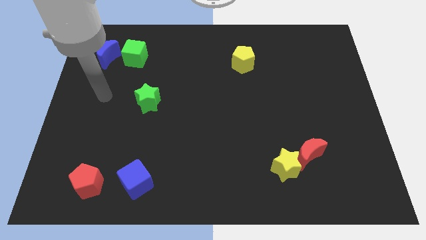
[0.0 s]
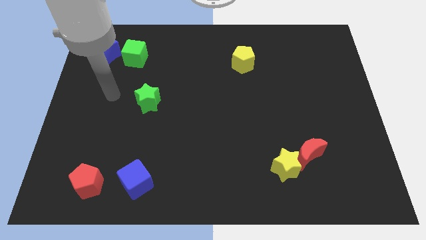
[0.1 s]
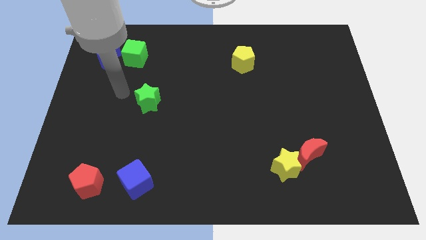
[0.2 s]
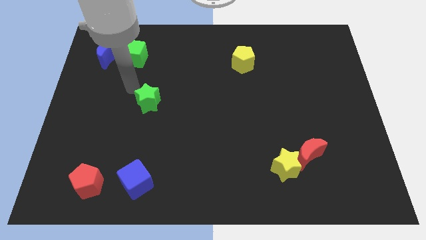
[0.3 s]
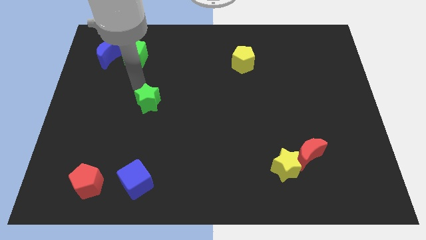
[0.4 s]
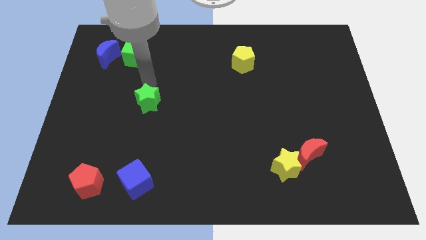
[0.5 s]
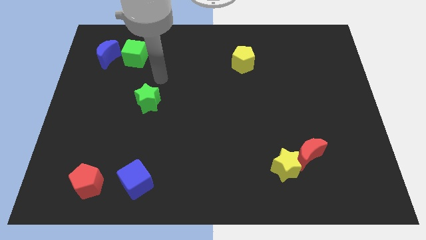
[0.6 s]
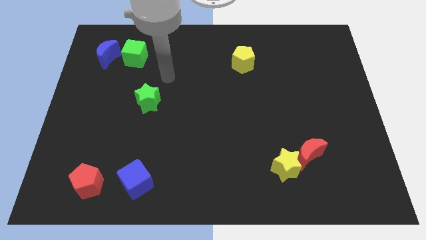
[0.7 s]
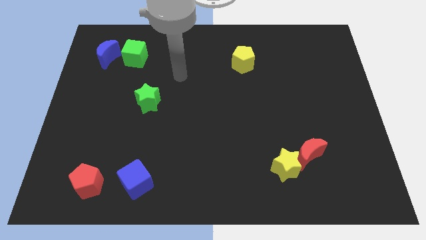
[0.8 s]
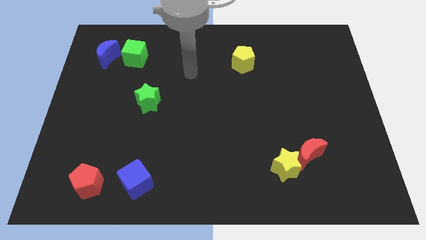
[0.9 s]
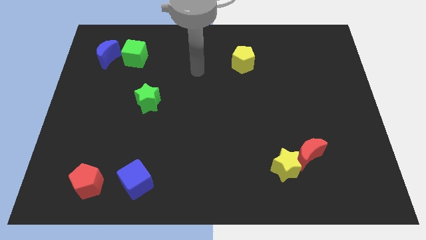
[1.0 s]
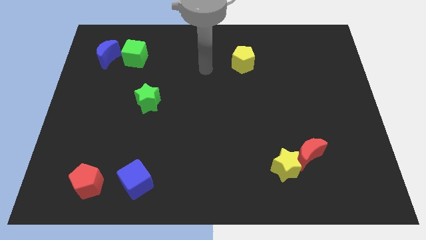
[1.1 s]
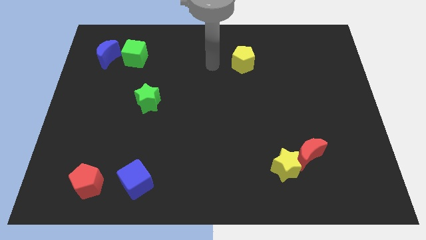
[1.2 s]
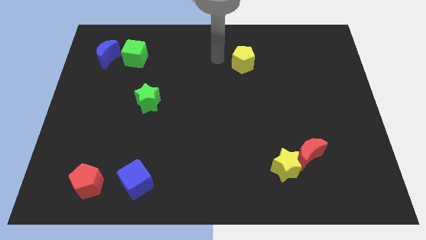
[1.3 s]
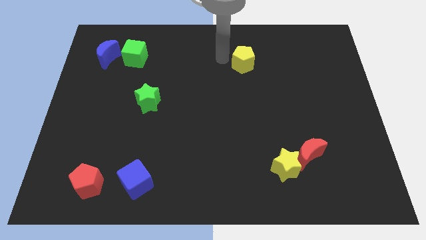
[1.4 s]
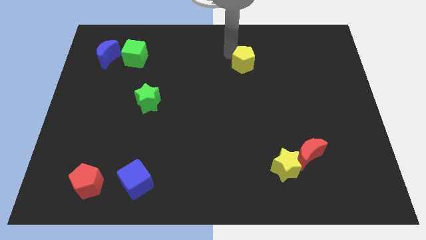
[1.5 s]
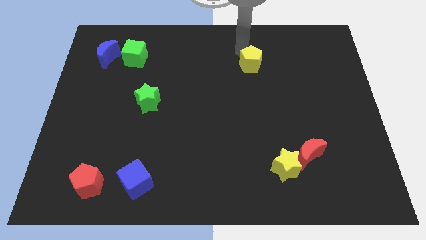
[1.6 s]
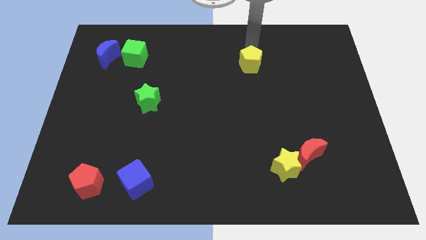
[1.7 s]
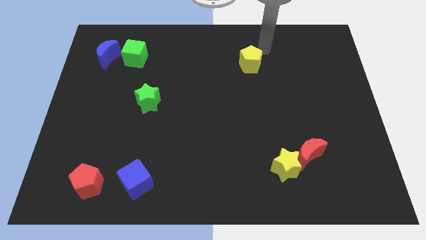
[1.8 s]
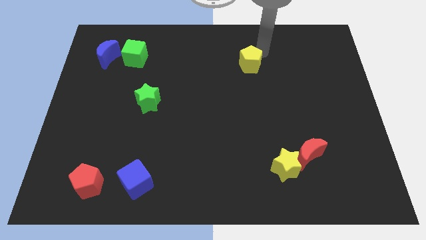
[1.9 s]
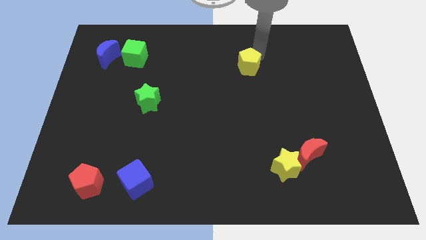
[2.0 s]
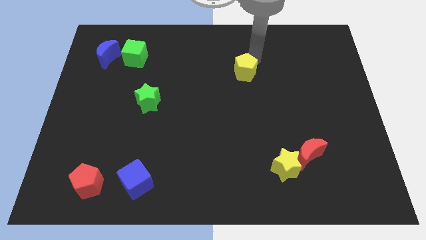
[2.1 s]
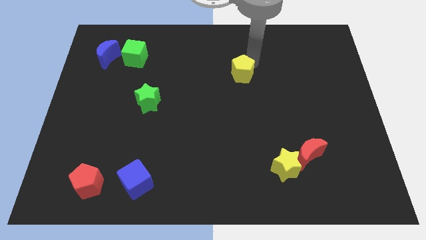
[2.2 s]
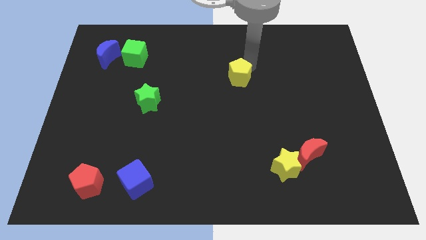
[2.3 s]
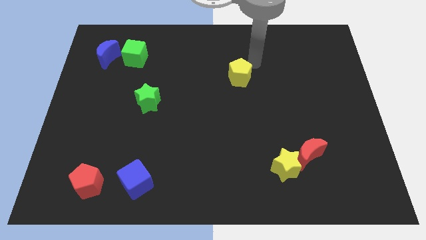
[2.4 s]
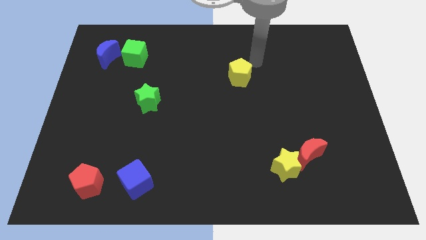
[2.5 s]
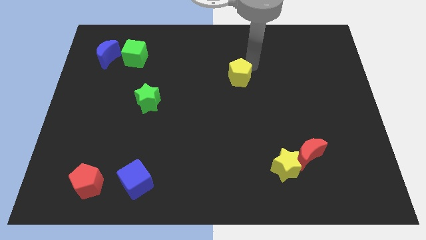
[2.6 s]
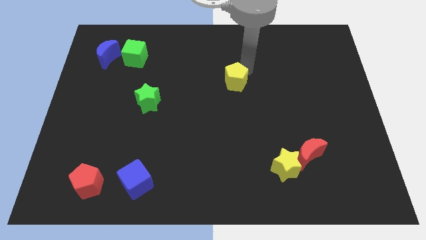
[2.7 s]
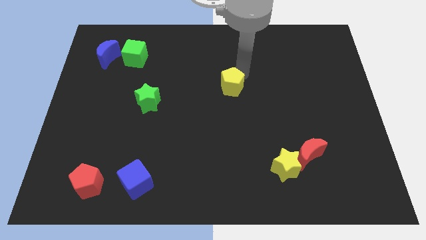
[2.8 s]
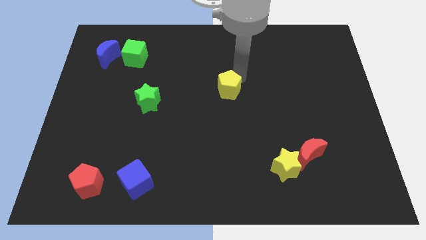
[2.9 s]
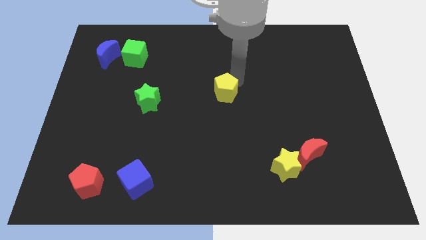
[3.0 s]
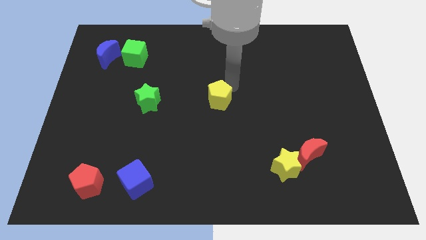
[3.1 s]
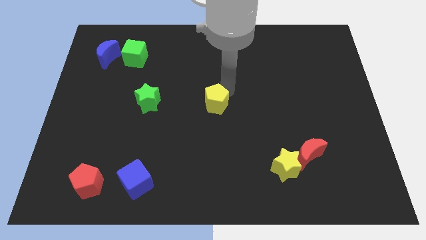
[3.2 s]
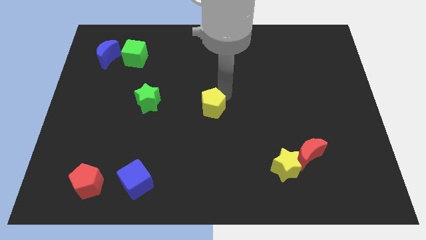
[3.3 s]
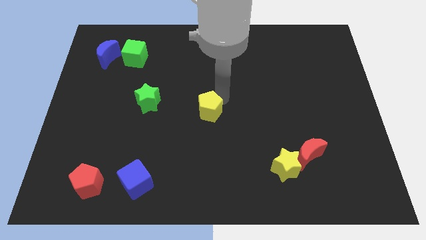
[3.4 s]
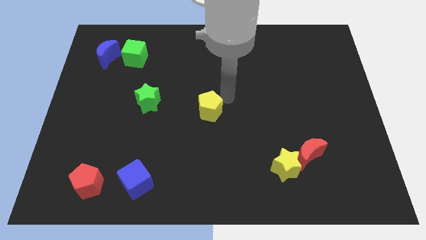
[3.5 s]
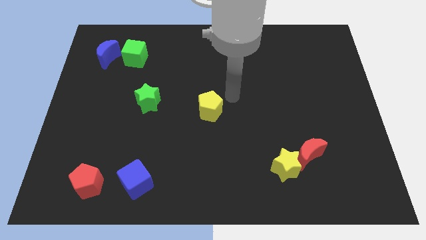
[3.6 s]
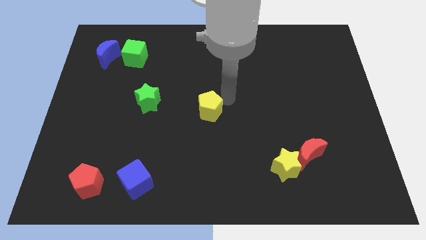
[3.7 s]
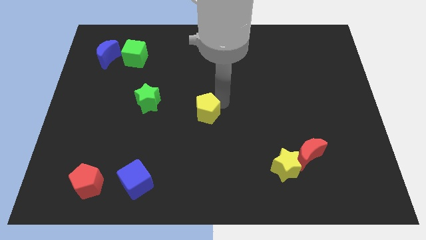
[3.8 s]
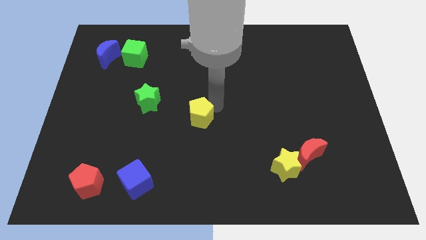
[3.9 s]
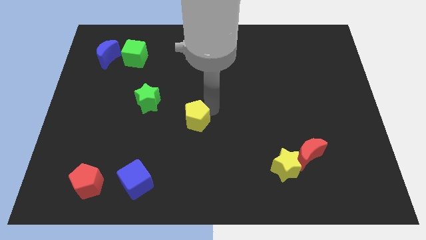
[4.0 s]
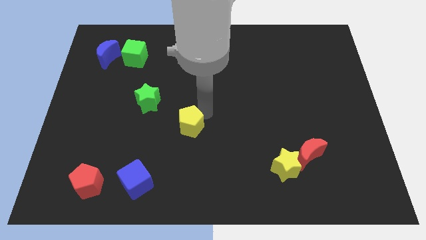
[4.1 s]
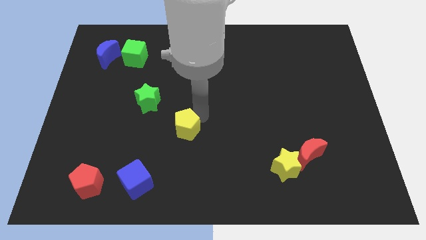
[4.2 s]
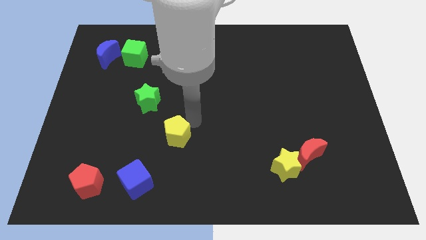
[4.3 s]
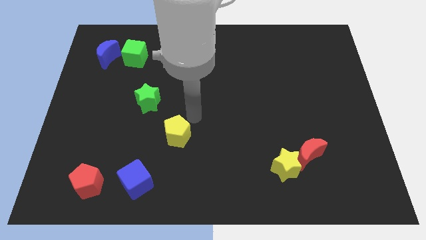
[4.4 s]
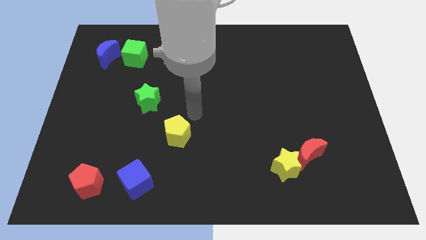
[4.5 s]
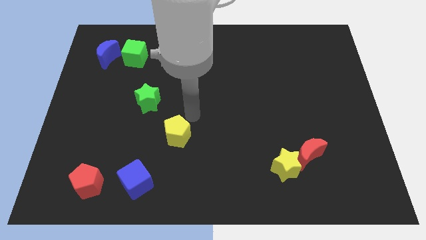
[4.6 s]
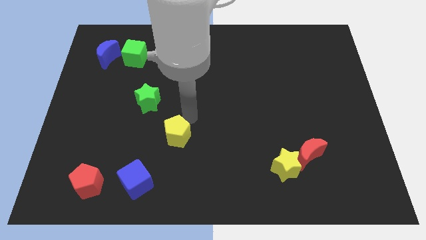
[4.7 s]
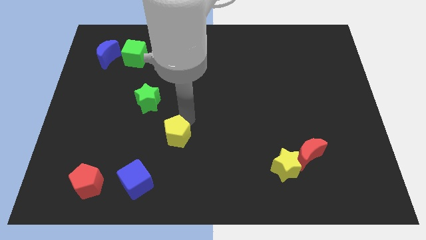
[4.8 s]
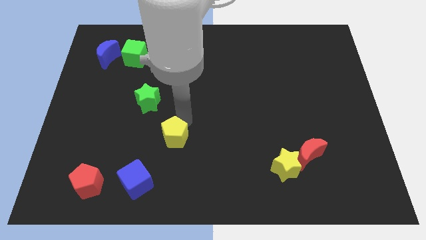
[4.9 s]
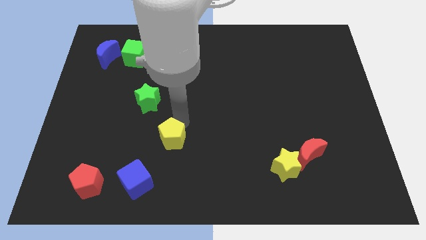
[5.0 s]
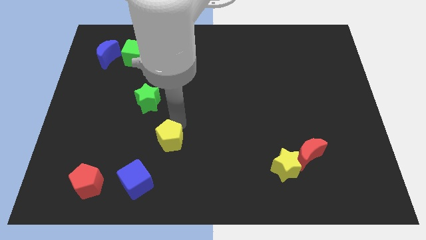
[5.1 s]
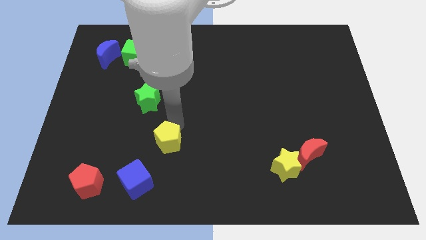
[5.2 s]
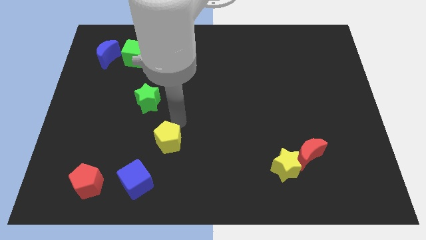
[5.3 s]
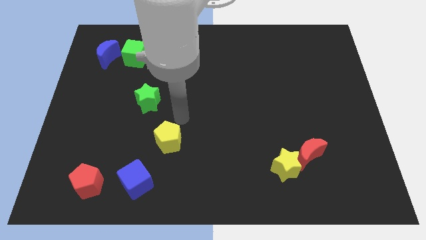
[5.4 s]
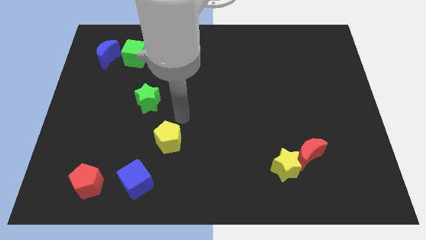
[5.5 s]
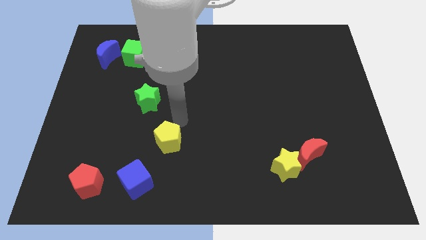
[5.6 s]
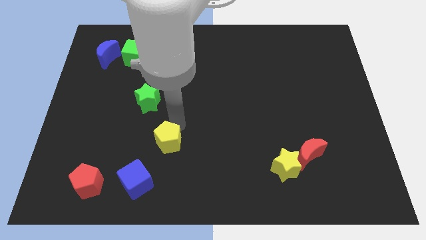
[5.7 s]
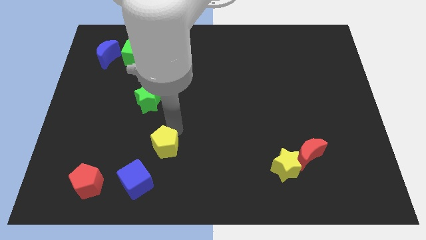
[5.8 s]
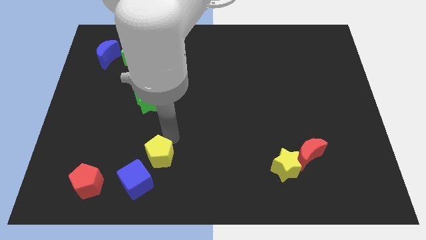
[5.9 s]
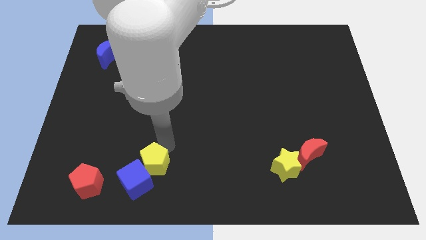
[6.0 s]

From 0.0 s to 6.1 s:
put the yellow pentagon close to the blue cube

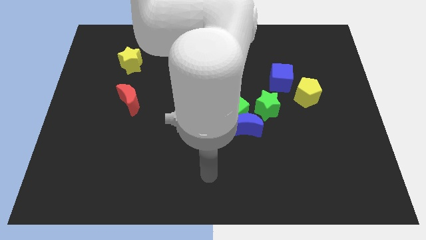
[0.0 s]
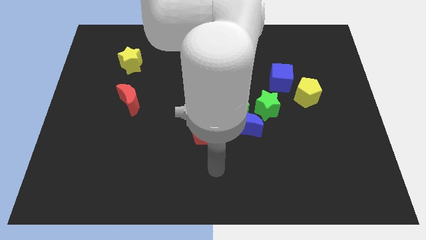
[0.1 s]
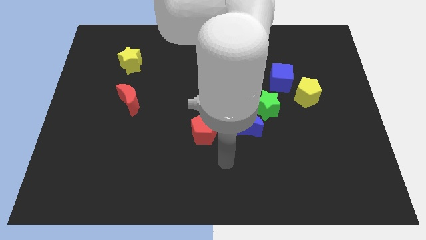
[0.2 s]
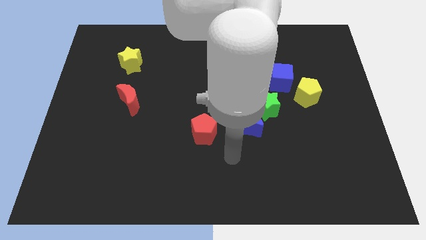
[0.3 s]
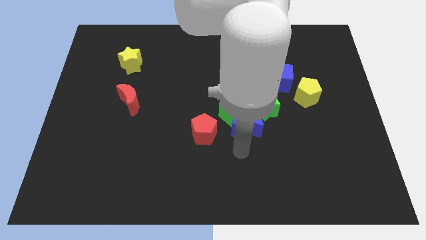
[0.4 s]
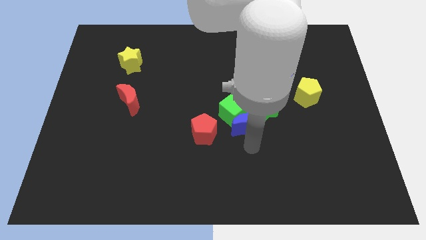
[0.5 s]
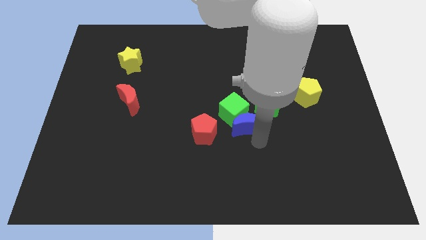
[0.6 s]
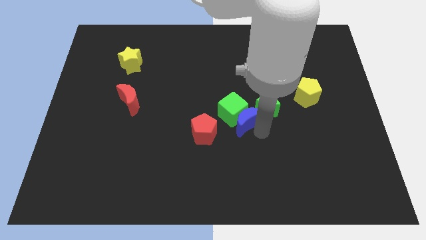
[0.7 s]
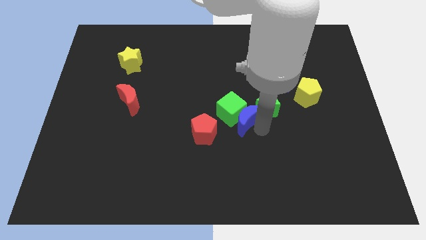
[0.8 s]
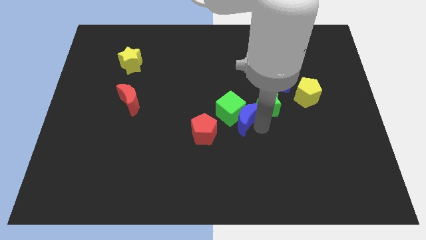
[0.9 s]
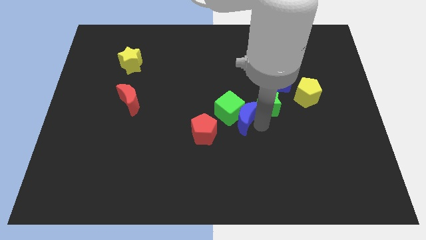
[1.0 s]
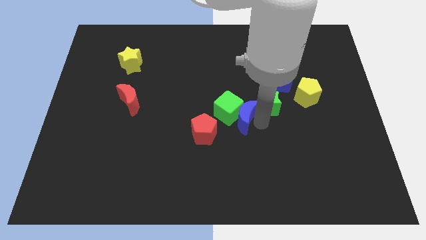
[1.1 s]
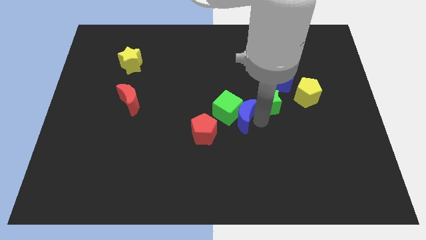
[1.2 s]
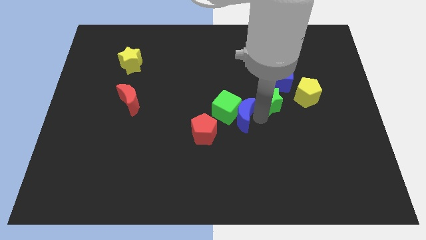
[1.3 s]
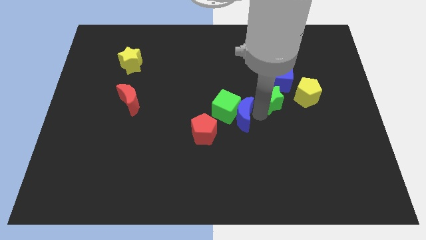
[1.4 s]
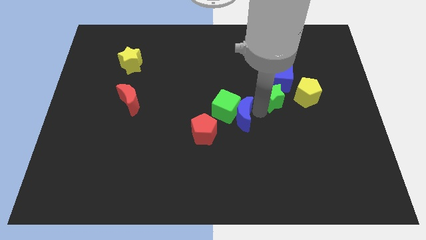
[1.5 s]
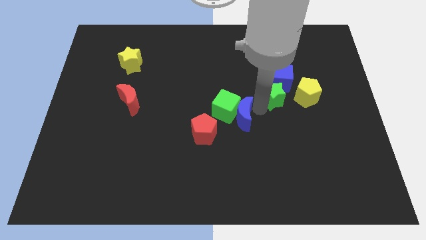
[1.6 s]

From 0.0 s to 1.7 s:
push the green star to the blue cube

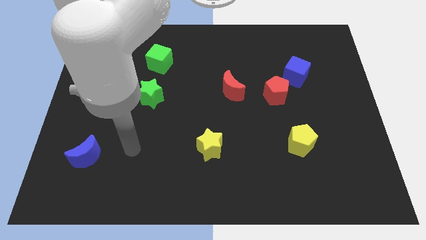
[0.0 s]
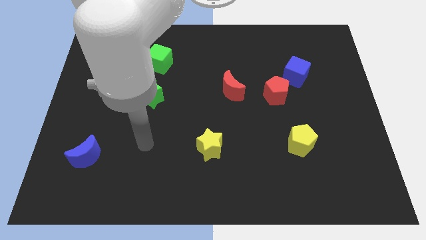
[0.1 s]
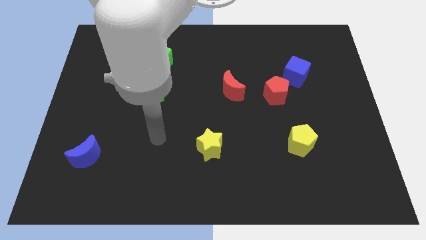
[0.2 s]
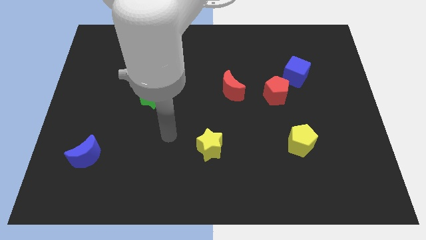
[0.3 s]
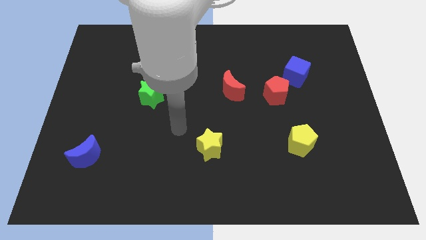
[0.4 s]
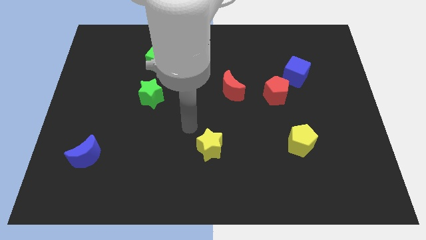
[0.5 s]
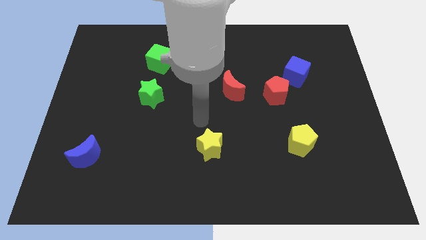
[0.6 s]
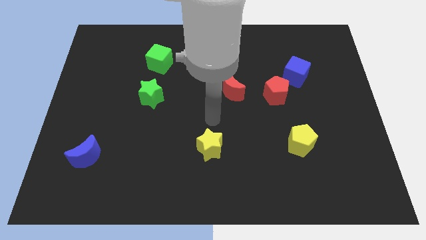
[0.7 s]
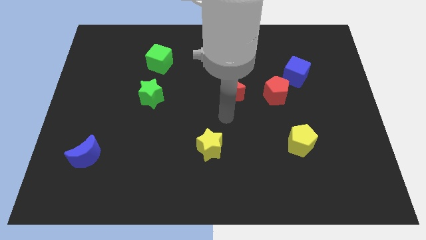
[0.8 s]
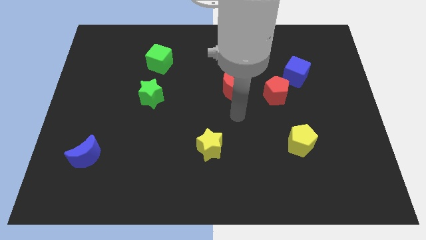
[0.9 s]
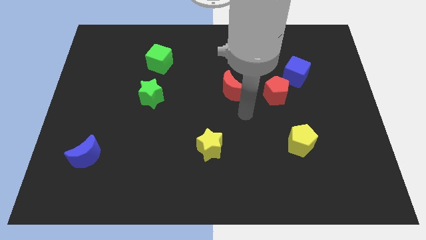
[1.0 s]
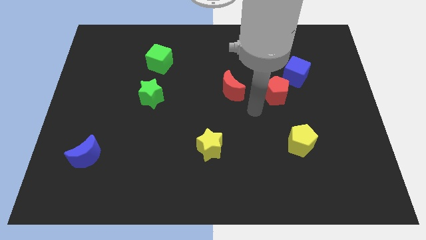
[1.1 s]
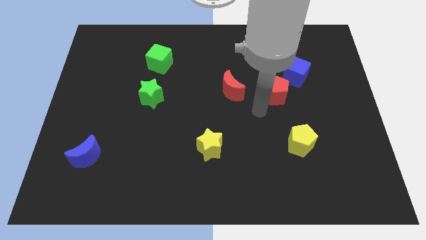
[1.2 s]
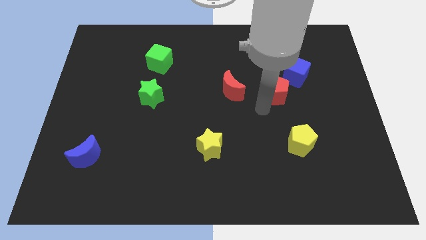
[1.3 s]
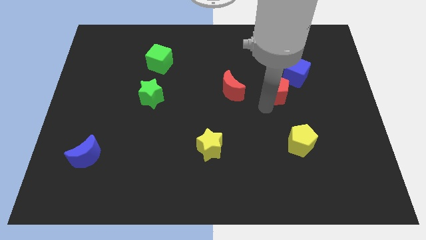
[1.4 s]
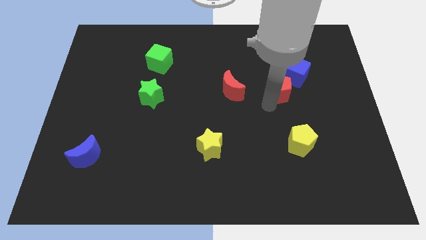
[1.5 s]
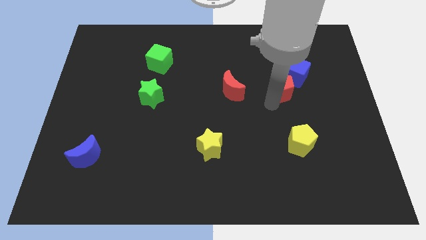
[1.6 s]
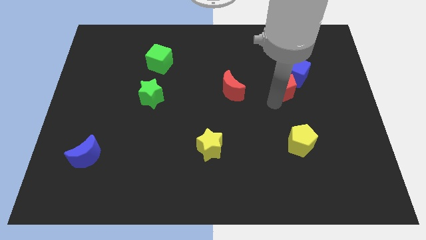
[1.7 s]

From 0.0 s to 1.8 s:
put the red pentagon to the blue cube
